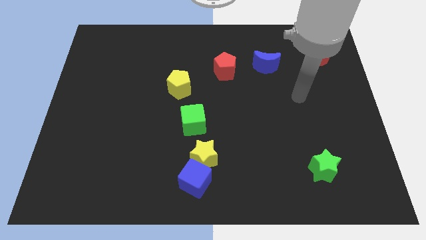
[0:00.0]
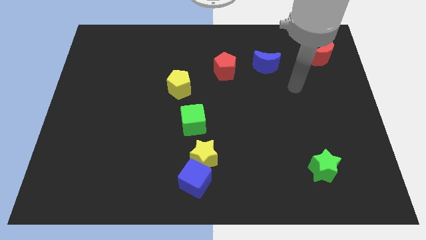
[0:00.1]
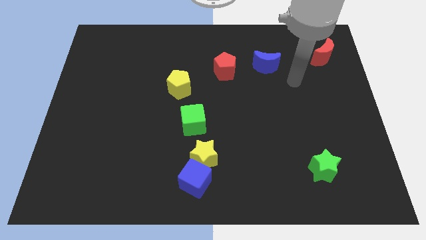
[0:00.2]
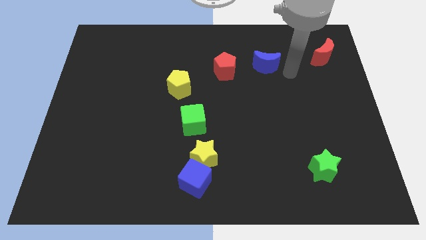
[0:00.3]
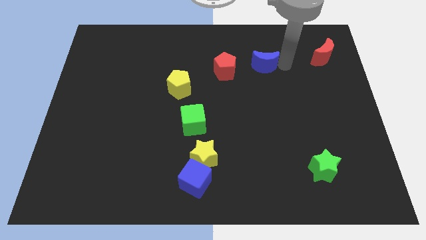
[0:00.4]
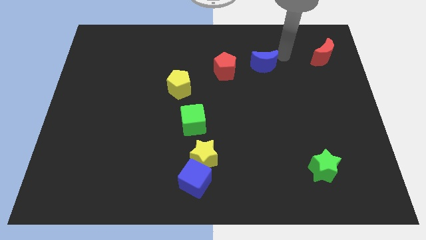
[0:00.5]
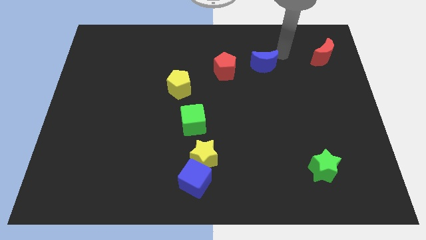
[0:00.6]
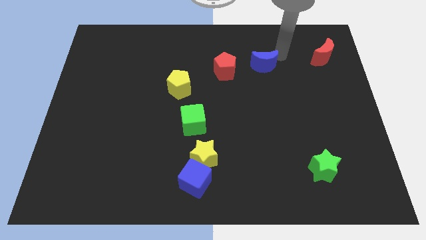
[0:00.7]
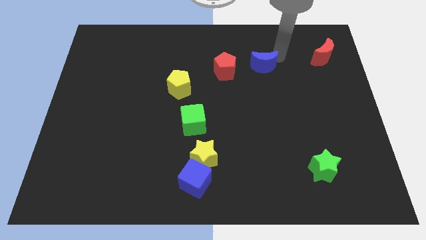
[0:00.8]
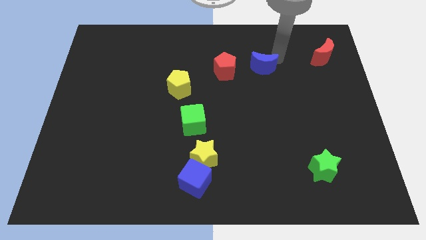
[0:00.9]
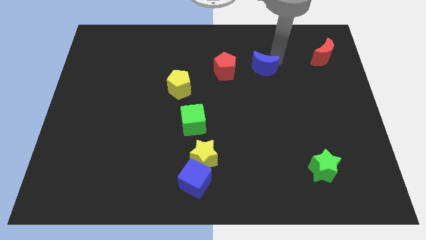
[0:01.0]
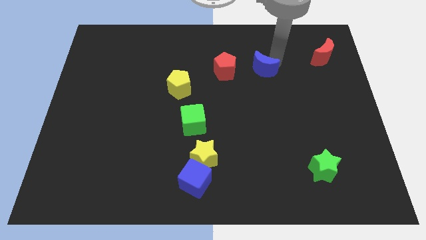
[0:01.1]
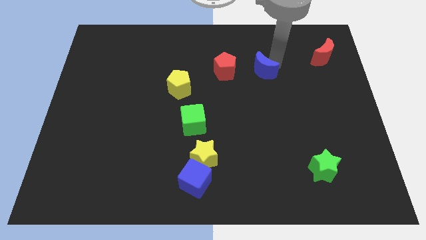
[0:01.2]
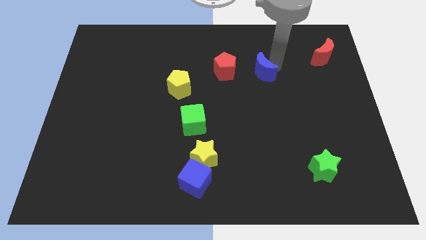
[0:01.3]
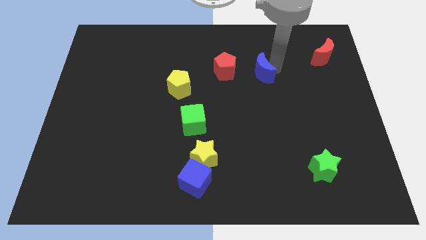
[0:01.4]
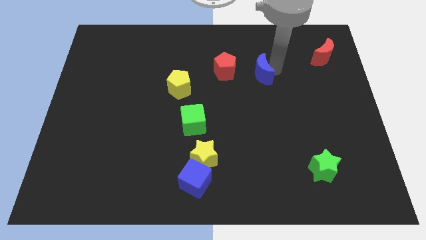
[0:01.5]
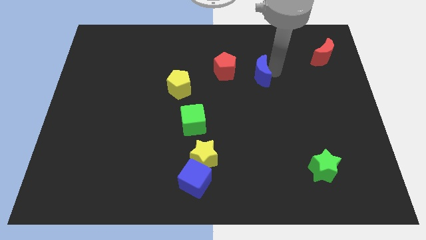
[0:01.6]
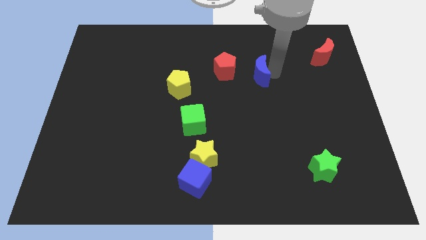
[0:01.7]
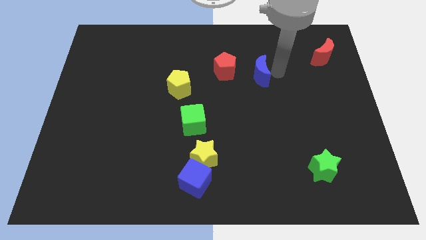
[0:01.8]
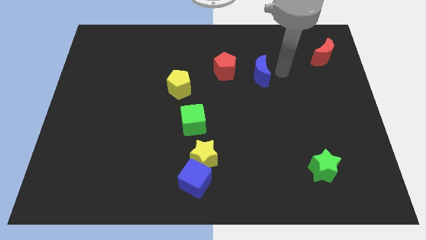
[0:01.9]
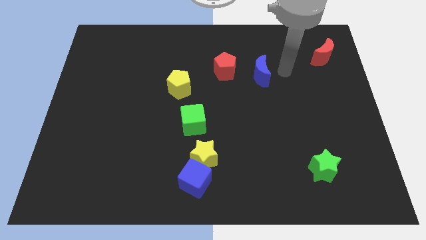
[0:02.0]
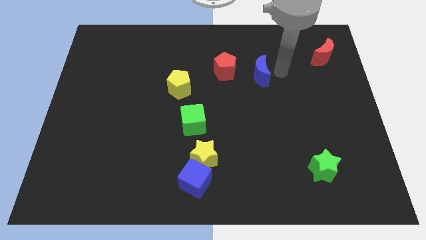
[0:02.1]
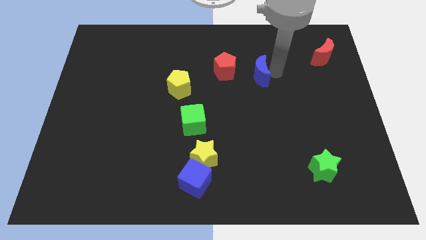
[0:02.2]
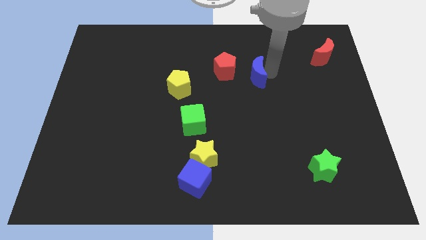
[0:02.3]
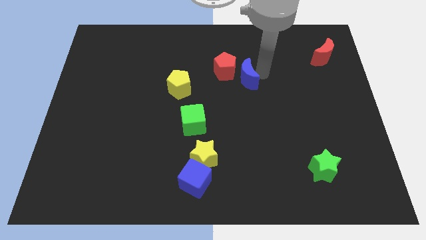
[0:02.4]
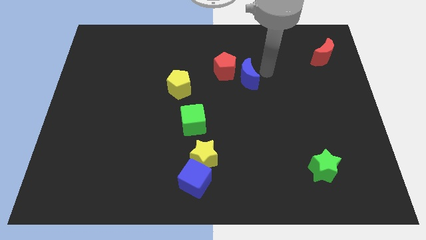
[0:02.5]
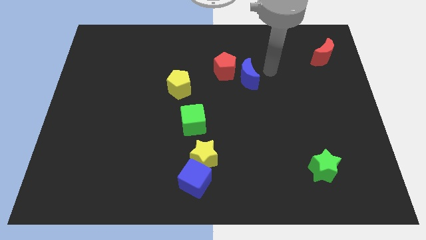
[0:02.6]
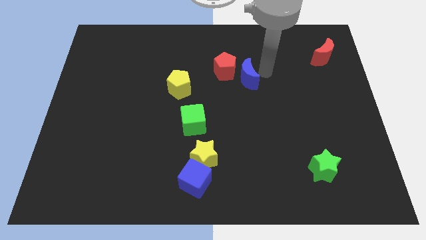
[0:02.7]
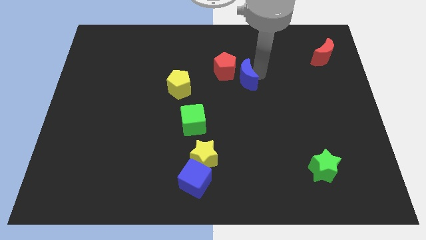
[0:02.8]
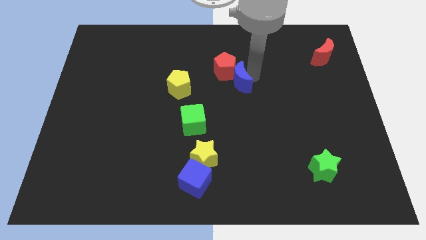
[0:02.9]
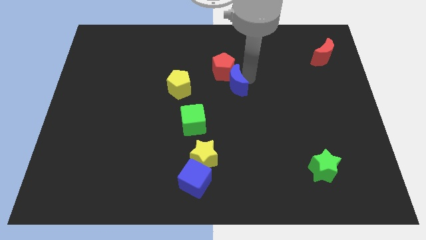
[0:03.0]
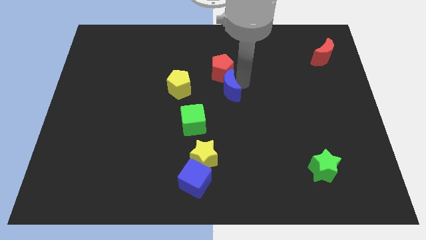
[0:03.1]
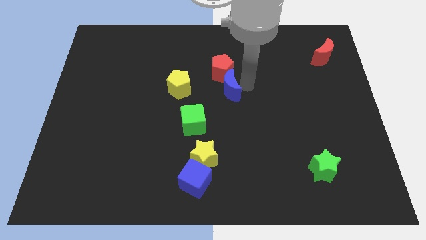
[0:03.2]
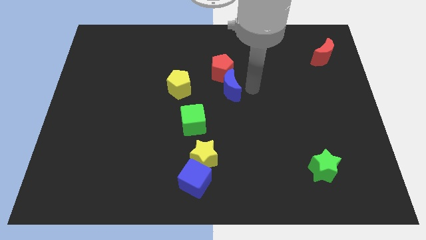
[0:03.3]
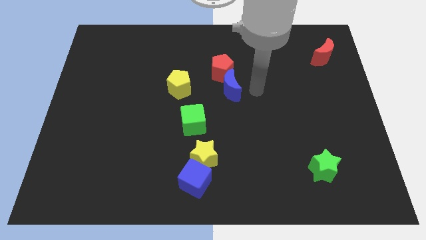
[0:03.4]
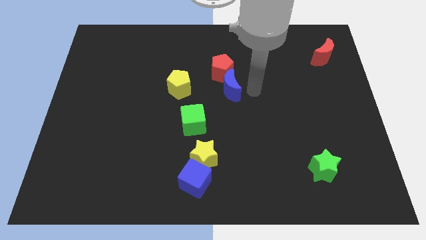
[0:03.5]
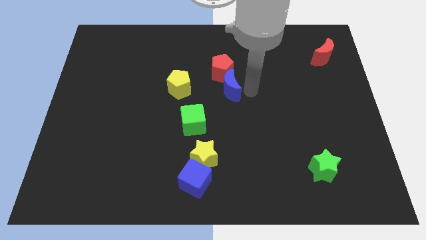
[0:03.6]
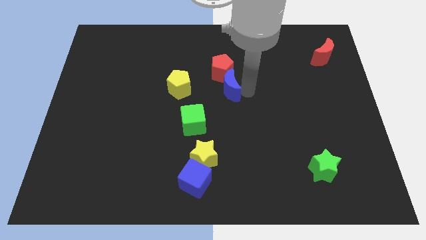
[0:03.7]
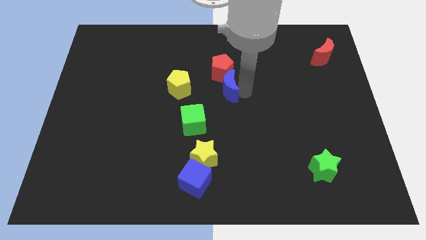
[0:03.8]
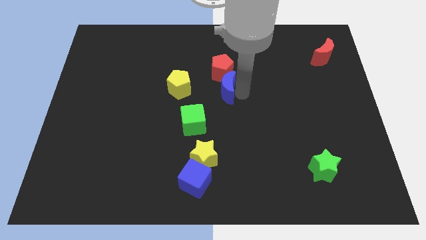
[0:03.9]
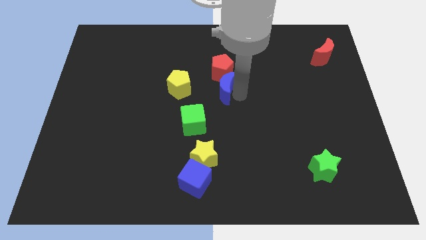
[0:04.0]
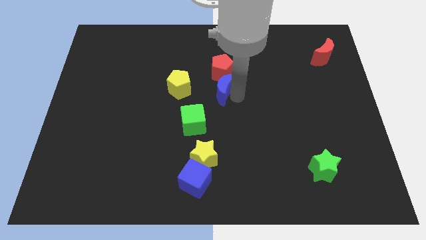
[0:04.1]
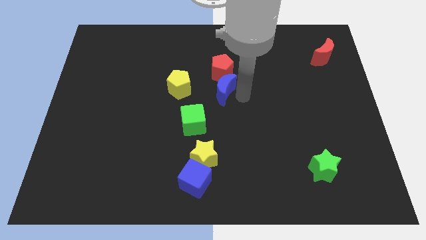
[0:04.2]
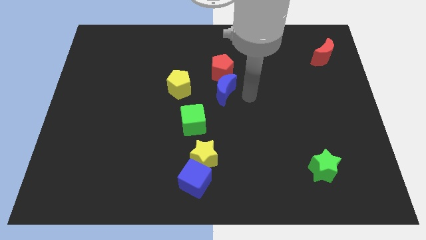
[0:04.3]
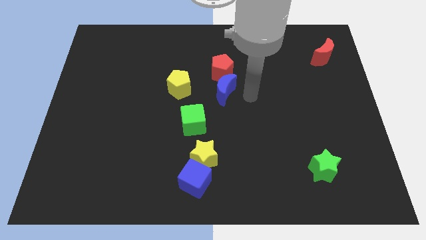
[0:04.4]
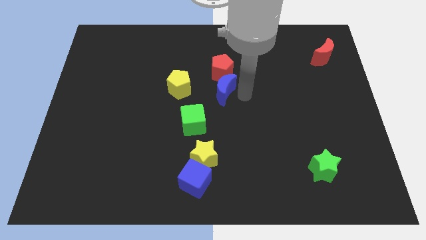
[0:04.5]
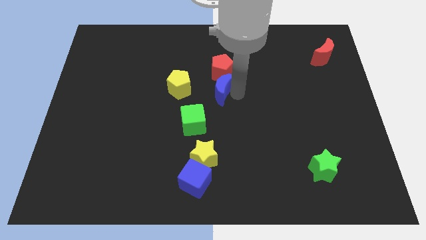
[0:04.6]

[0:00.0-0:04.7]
move the blue moon diagonally down and to the left of the red pentagon

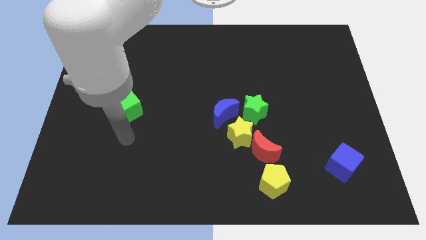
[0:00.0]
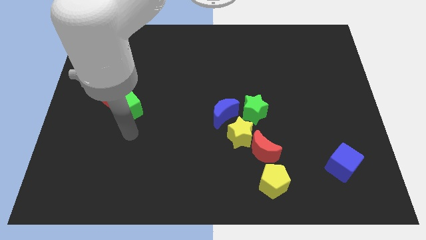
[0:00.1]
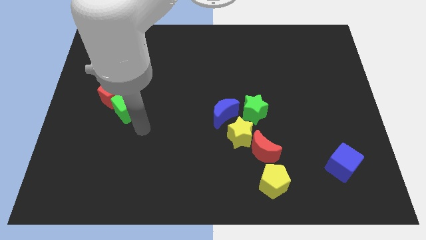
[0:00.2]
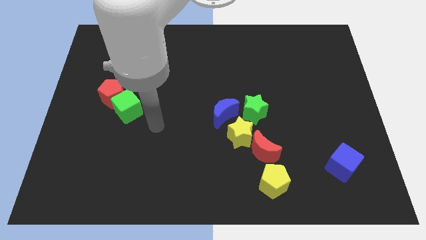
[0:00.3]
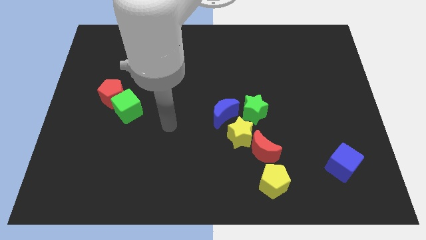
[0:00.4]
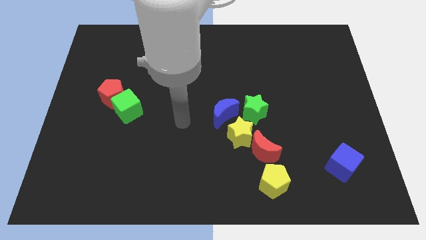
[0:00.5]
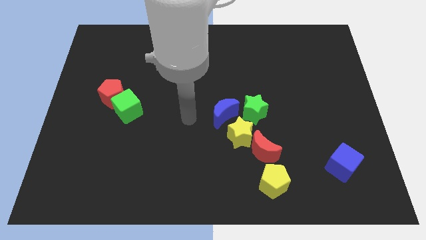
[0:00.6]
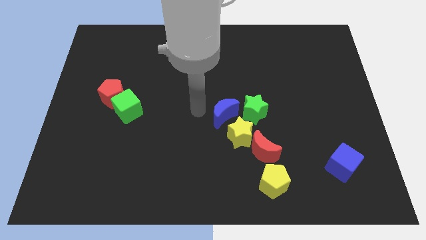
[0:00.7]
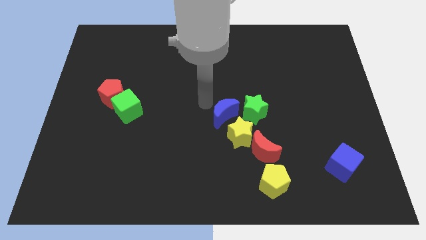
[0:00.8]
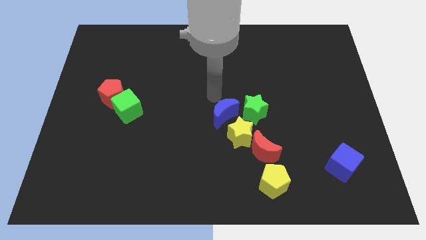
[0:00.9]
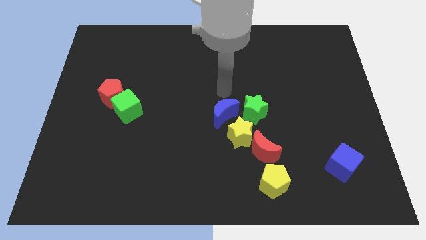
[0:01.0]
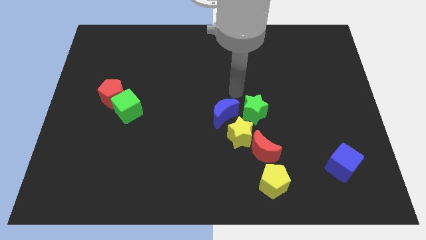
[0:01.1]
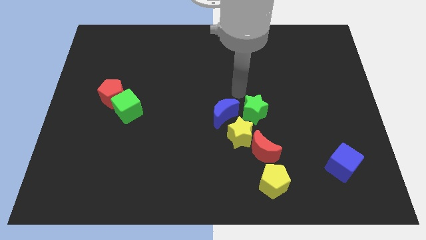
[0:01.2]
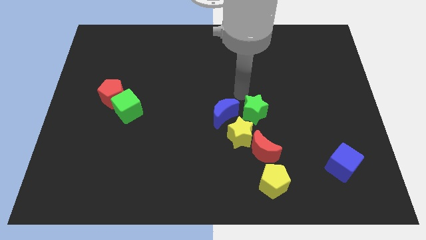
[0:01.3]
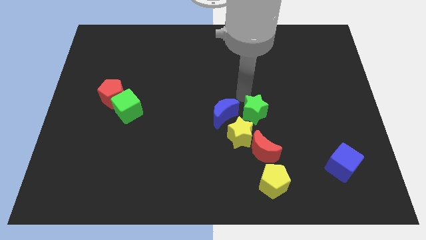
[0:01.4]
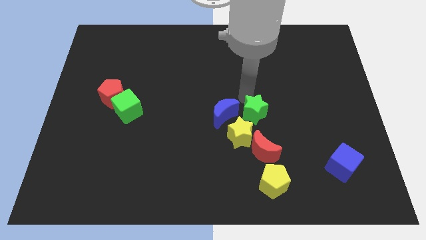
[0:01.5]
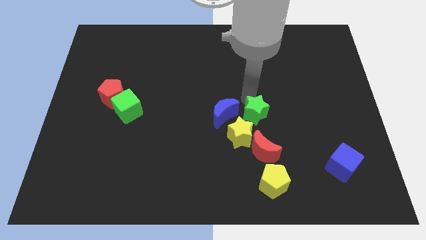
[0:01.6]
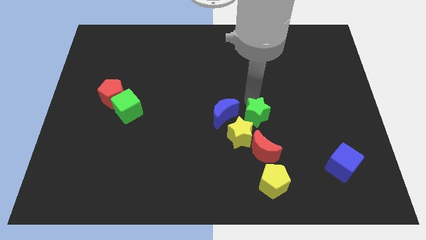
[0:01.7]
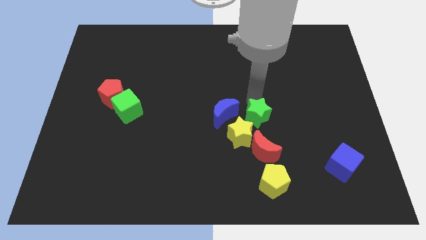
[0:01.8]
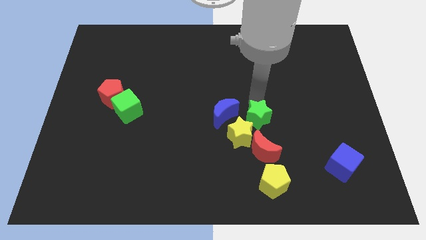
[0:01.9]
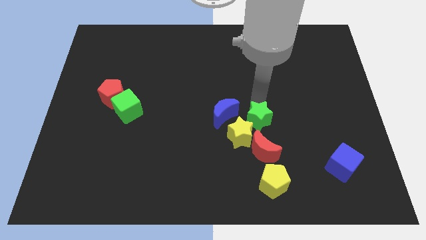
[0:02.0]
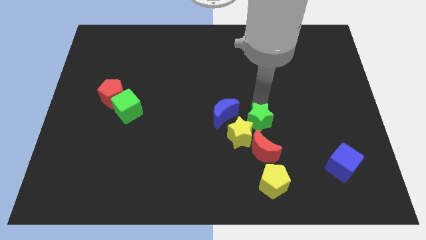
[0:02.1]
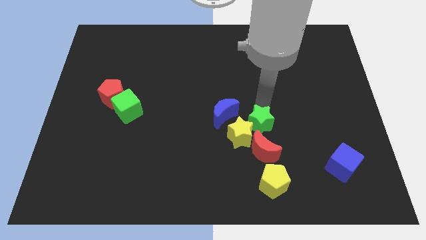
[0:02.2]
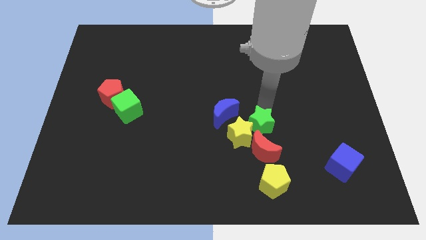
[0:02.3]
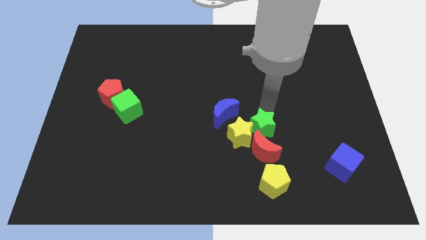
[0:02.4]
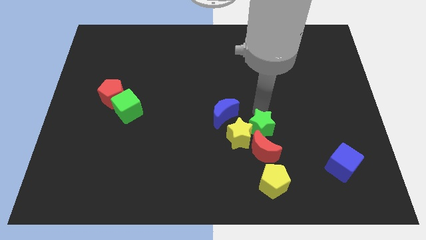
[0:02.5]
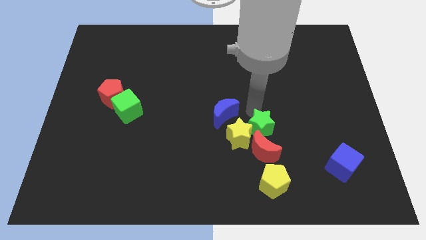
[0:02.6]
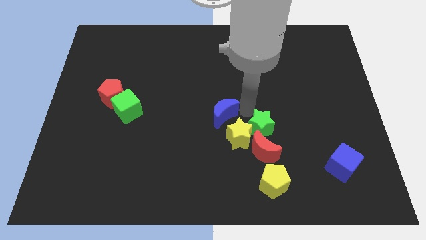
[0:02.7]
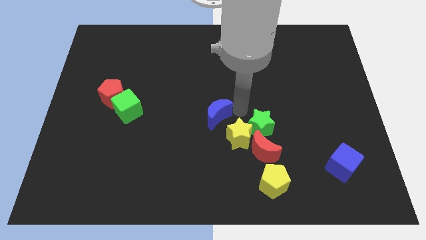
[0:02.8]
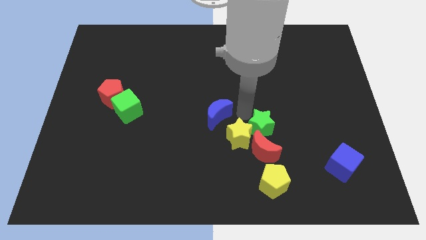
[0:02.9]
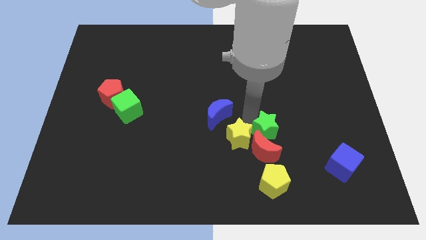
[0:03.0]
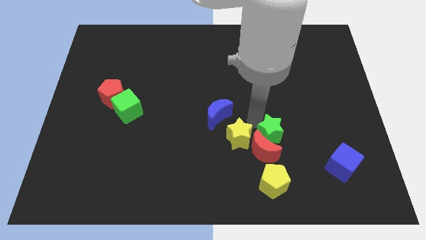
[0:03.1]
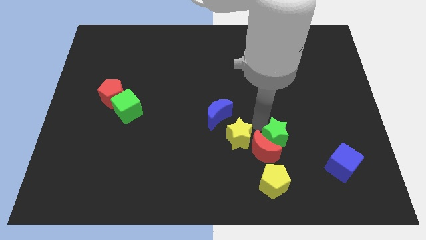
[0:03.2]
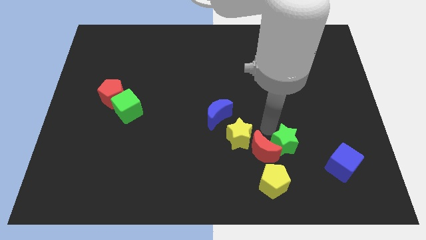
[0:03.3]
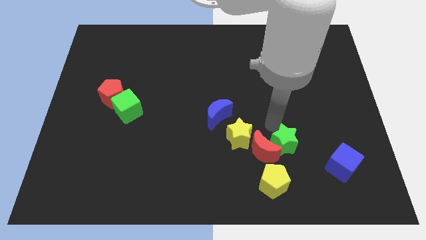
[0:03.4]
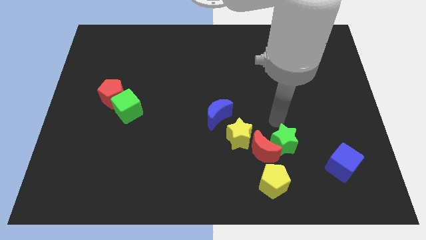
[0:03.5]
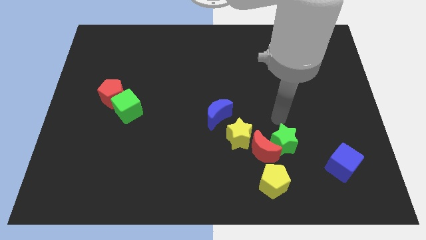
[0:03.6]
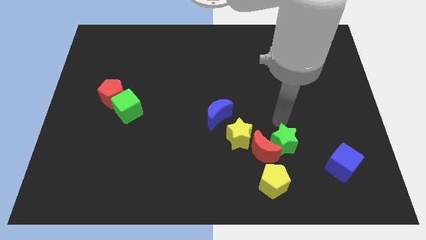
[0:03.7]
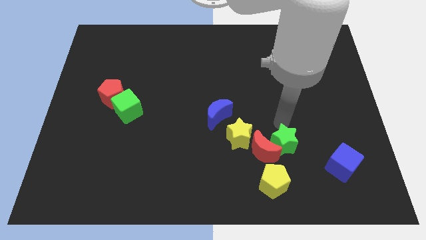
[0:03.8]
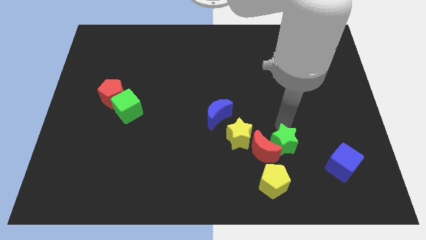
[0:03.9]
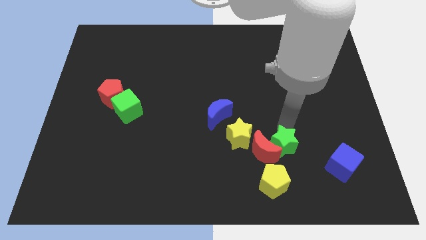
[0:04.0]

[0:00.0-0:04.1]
put the green star to the bottom right side of the red moon
